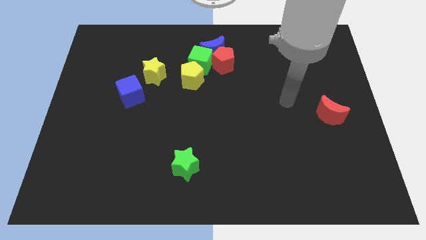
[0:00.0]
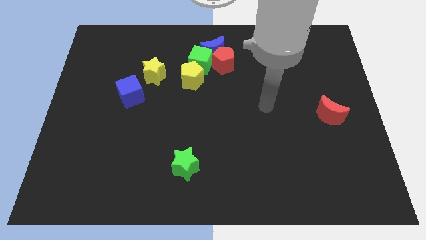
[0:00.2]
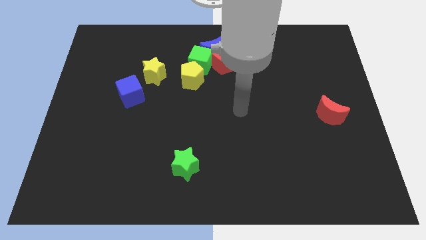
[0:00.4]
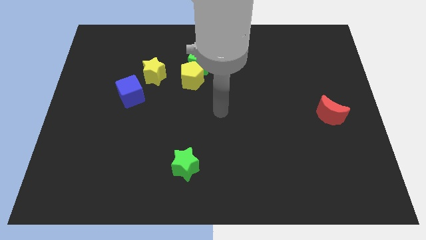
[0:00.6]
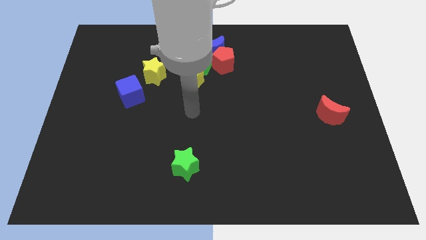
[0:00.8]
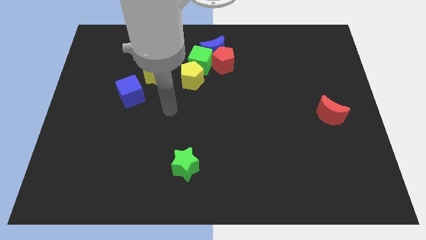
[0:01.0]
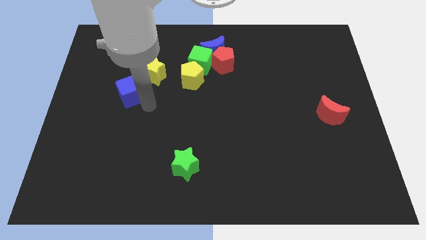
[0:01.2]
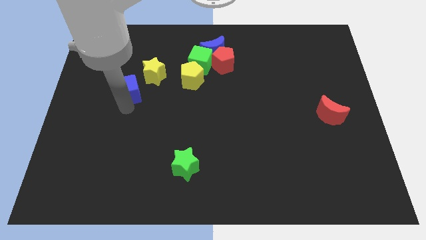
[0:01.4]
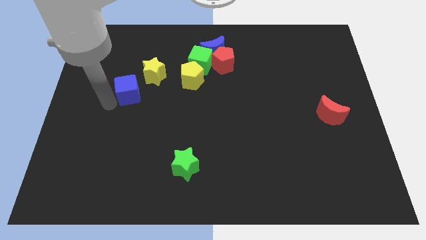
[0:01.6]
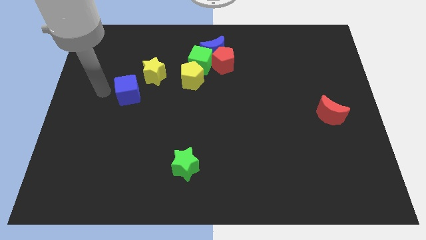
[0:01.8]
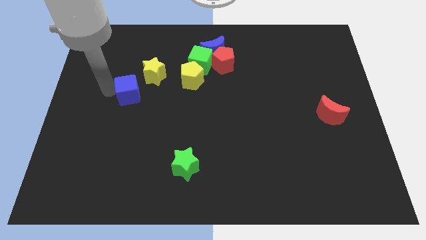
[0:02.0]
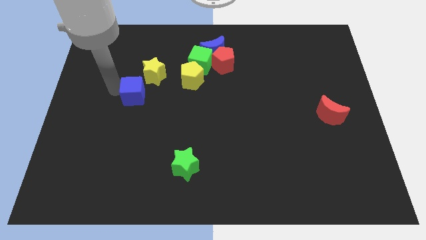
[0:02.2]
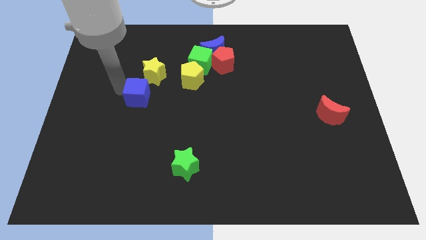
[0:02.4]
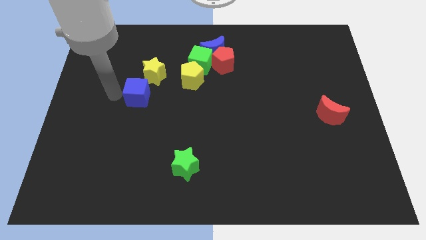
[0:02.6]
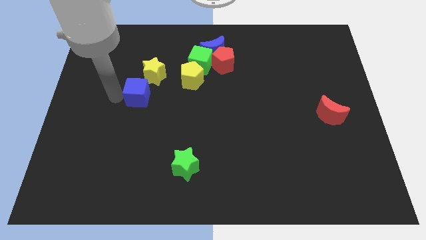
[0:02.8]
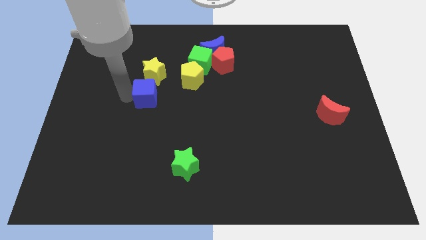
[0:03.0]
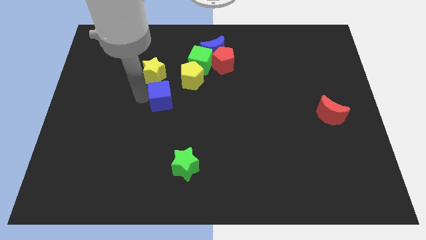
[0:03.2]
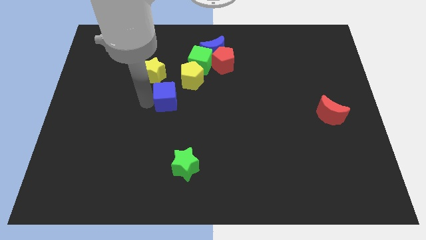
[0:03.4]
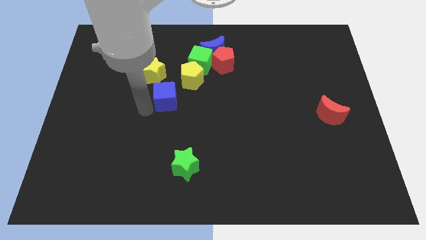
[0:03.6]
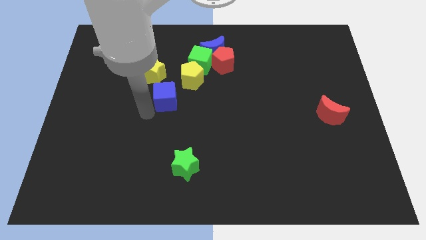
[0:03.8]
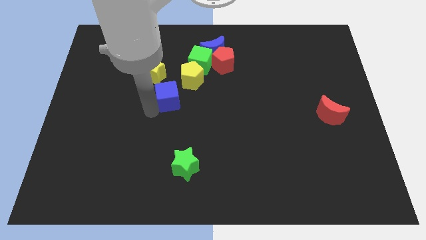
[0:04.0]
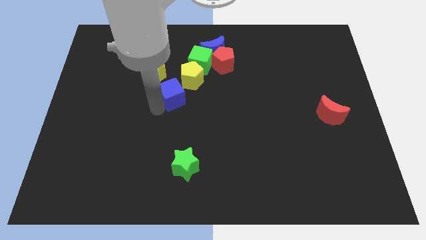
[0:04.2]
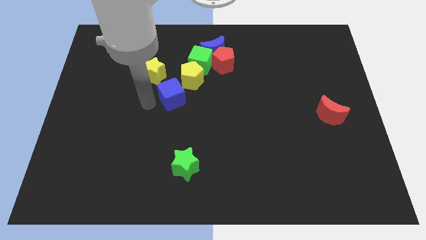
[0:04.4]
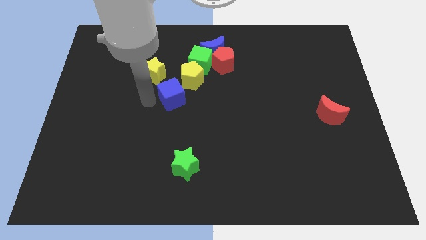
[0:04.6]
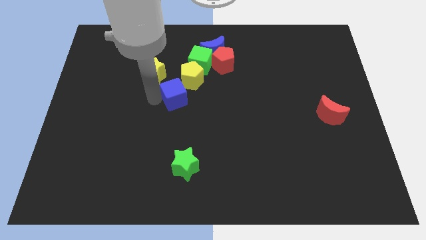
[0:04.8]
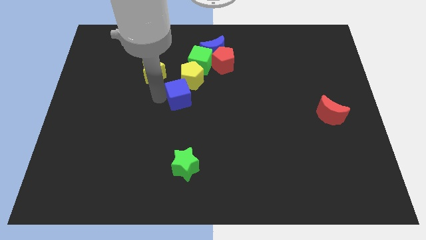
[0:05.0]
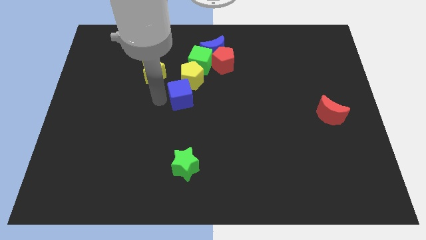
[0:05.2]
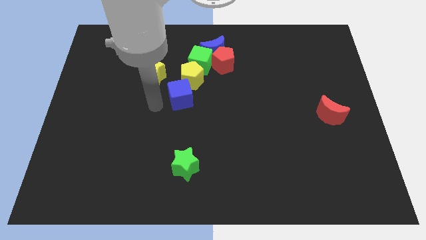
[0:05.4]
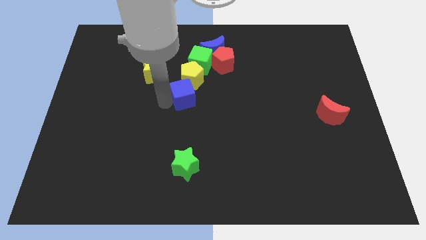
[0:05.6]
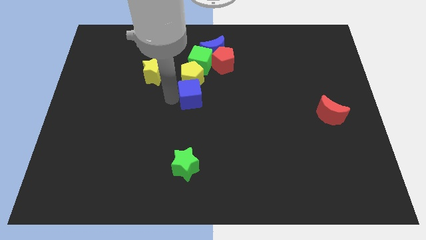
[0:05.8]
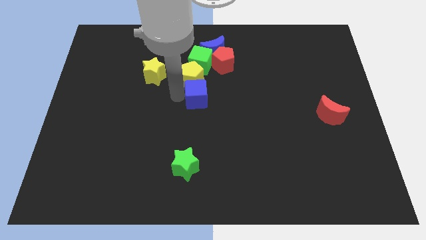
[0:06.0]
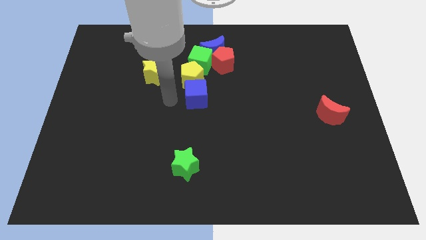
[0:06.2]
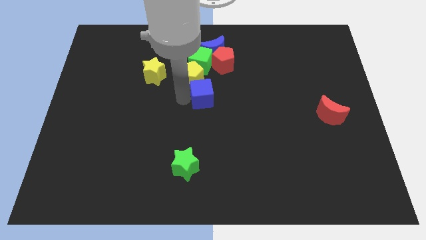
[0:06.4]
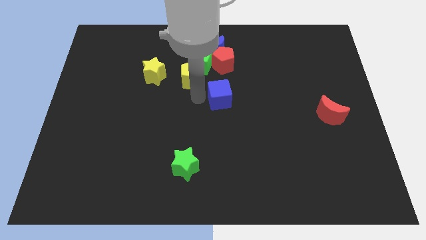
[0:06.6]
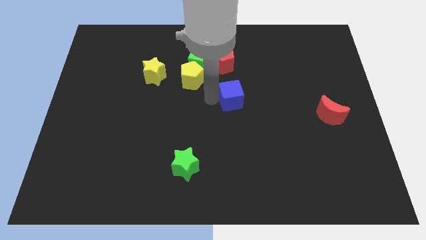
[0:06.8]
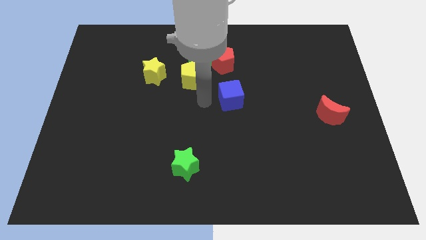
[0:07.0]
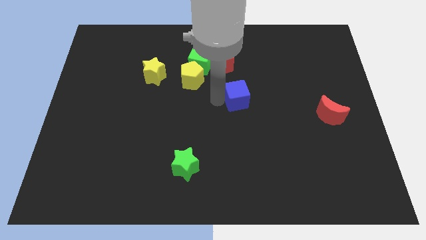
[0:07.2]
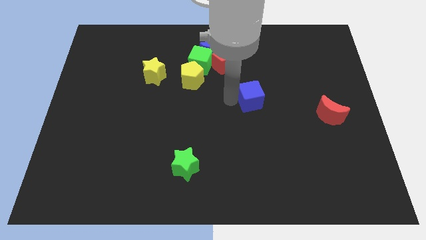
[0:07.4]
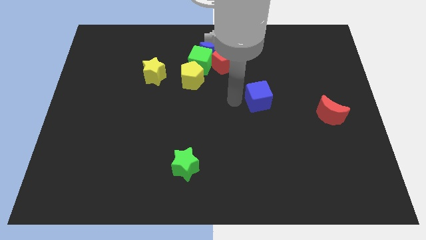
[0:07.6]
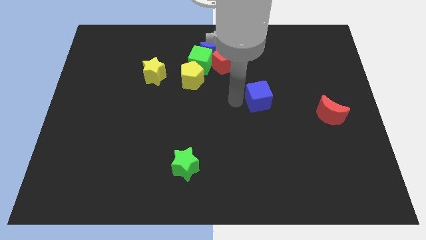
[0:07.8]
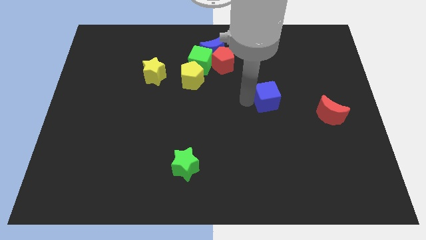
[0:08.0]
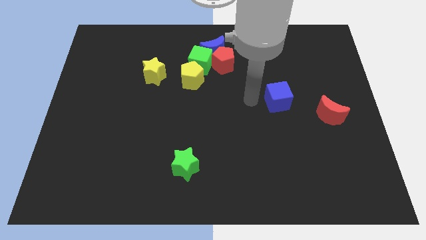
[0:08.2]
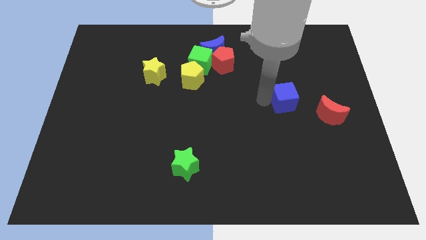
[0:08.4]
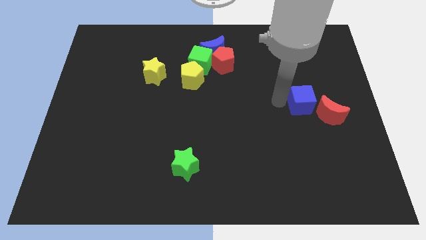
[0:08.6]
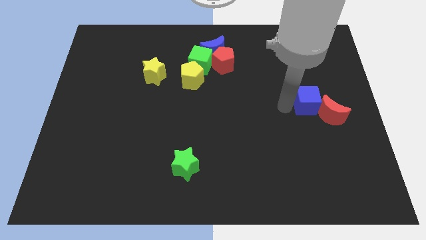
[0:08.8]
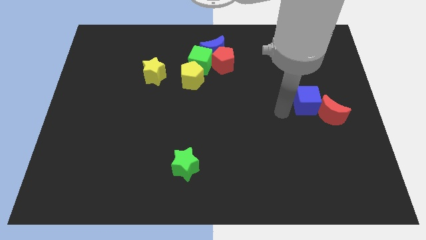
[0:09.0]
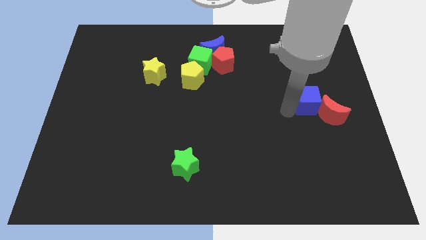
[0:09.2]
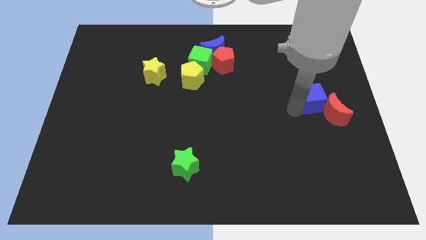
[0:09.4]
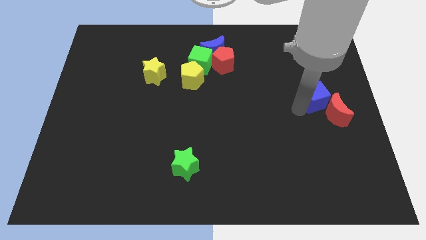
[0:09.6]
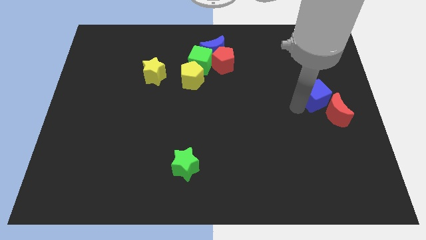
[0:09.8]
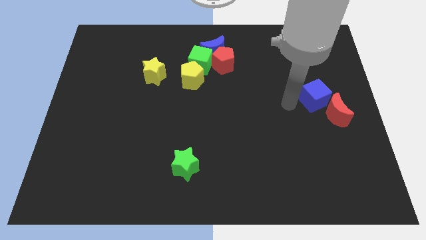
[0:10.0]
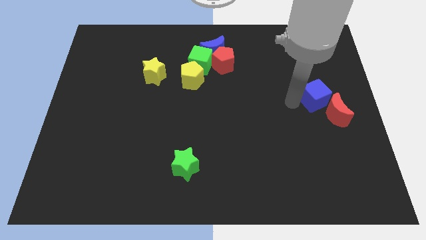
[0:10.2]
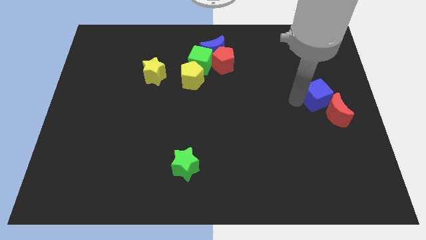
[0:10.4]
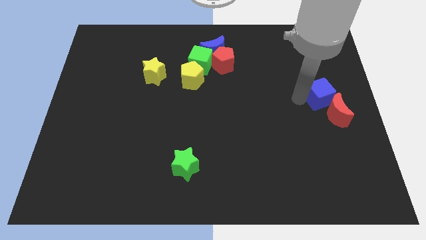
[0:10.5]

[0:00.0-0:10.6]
put the blue cube to the center right

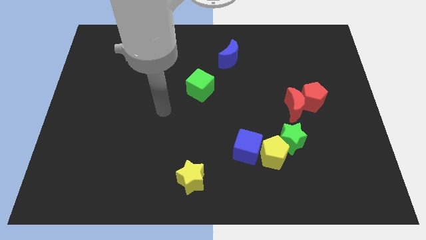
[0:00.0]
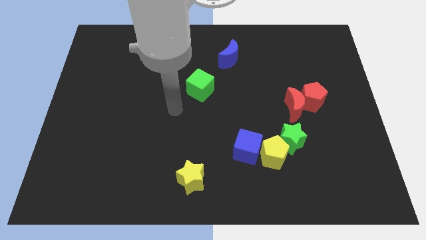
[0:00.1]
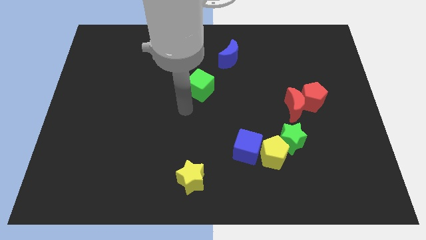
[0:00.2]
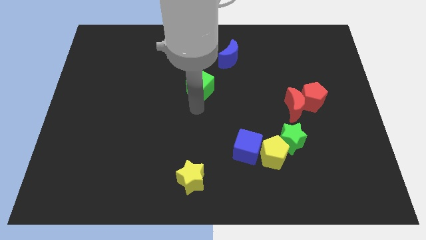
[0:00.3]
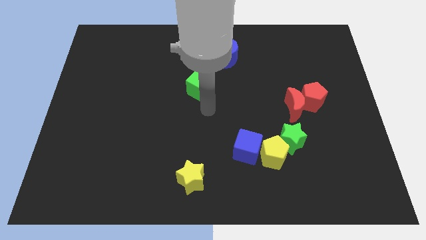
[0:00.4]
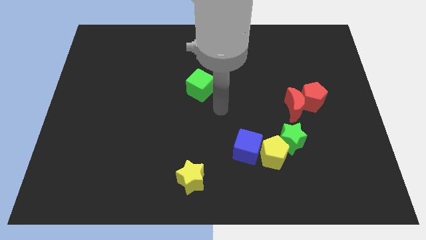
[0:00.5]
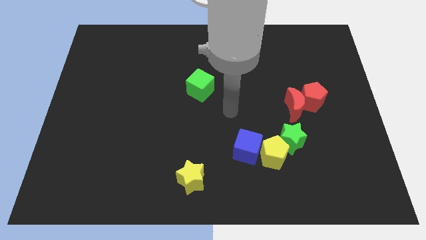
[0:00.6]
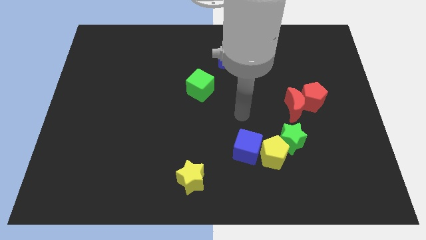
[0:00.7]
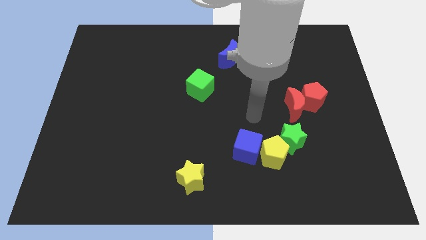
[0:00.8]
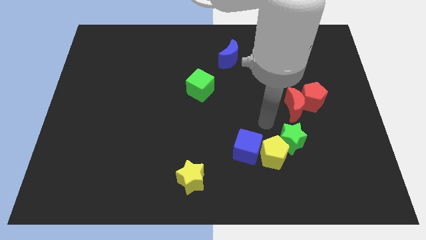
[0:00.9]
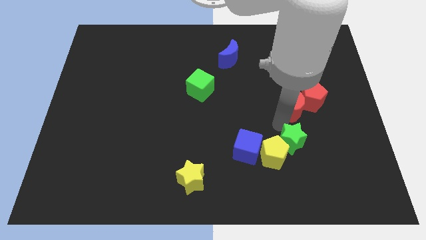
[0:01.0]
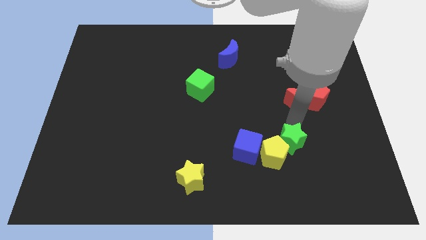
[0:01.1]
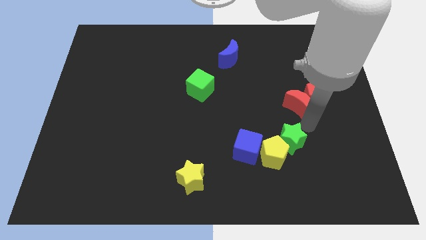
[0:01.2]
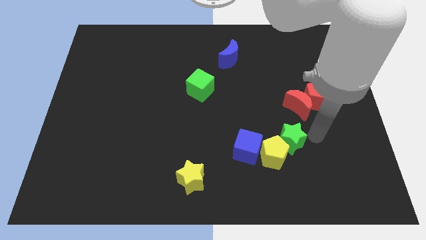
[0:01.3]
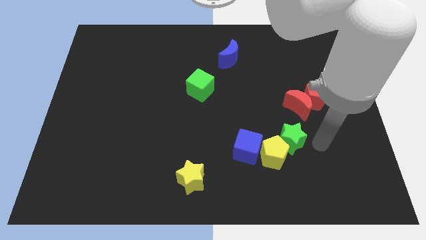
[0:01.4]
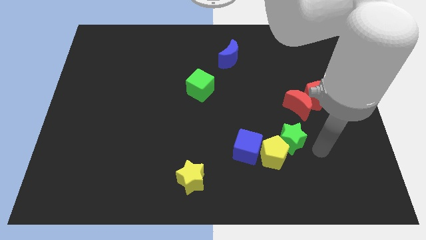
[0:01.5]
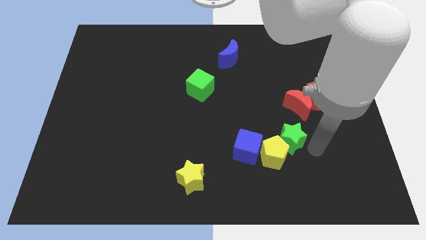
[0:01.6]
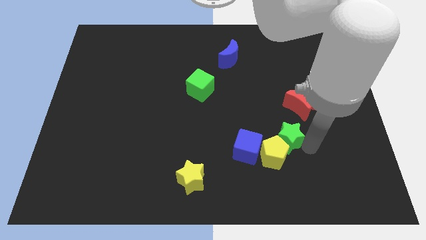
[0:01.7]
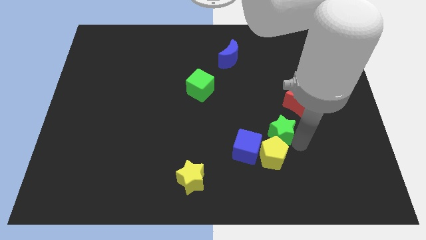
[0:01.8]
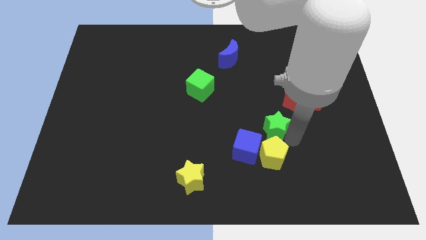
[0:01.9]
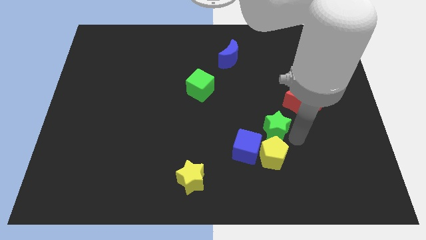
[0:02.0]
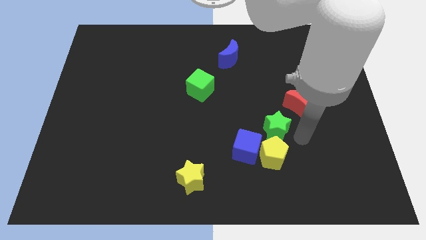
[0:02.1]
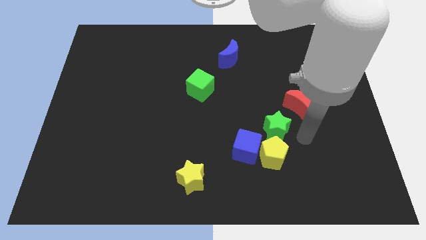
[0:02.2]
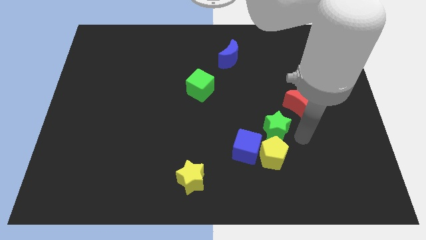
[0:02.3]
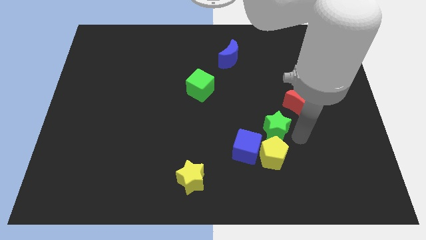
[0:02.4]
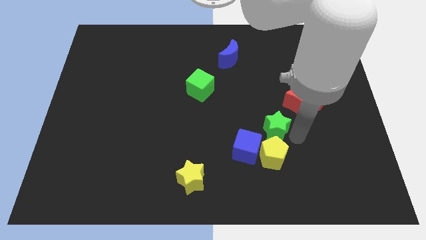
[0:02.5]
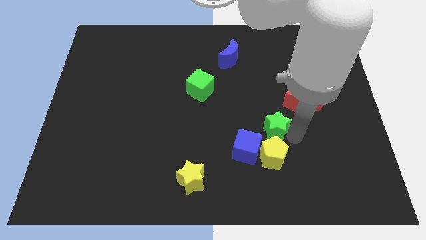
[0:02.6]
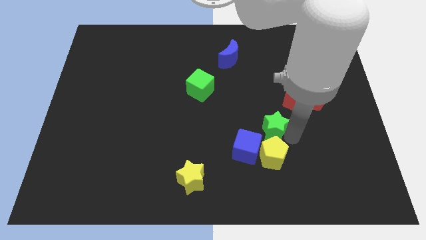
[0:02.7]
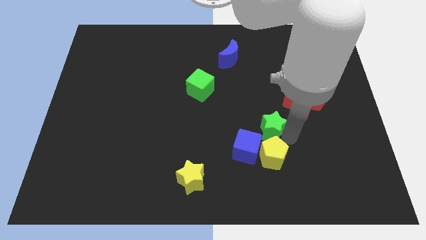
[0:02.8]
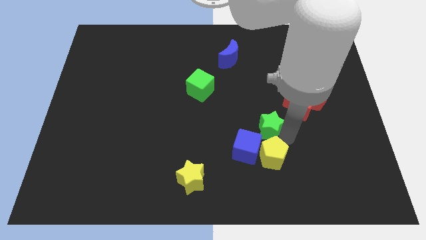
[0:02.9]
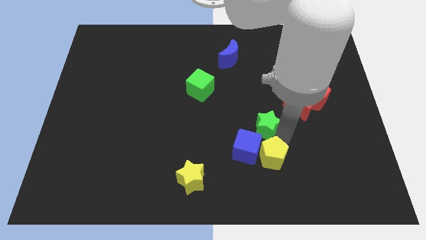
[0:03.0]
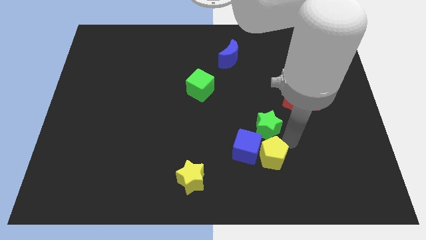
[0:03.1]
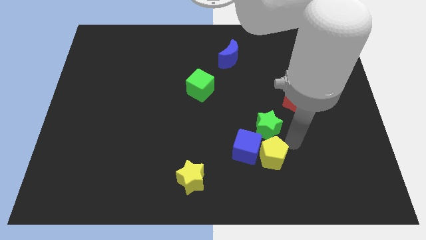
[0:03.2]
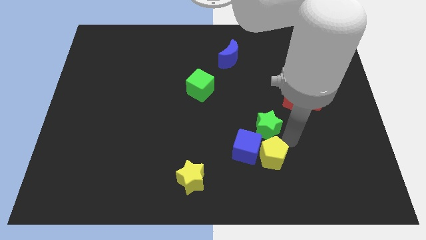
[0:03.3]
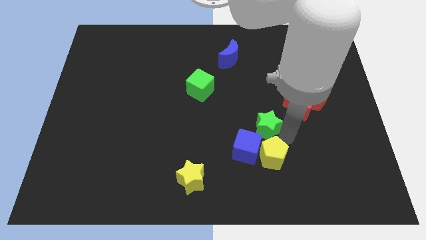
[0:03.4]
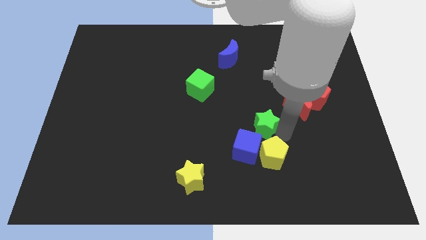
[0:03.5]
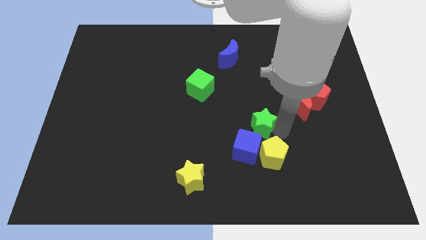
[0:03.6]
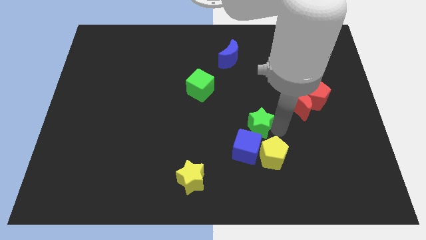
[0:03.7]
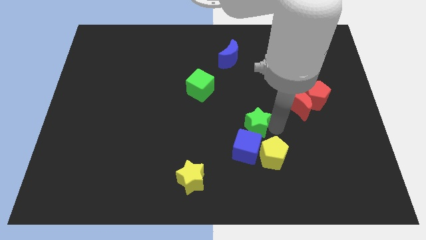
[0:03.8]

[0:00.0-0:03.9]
move the green star to the center of the board
